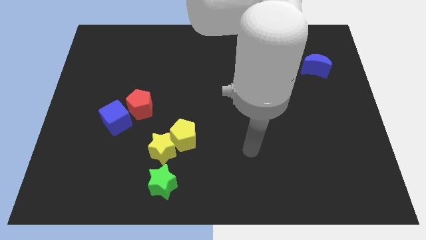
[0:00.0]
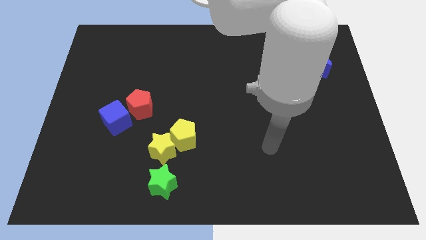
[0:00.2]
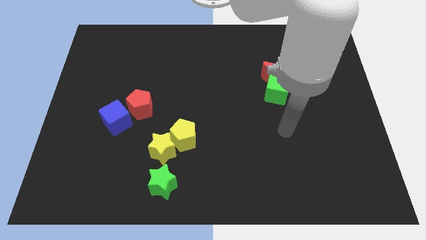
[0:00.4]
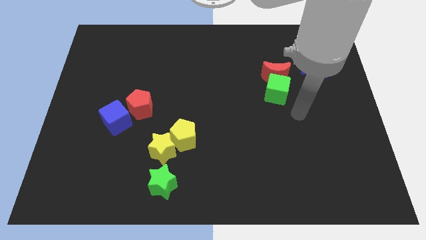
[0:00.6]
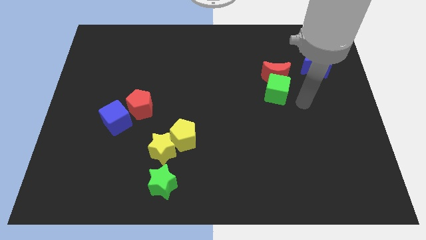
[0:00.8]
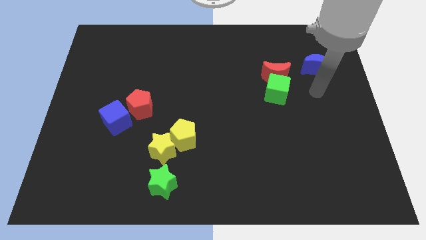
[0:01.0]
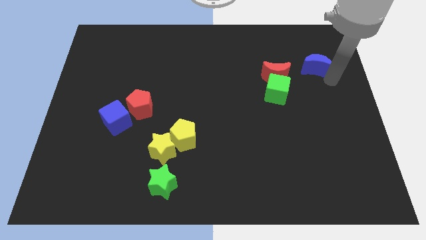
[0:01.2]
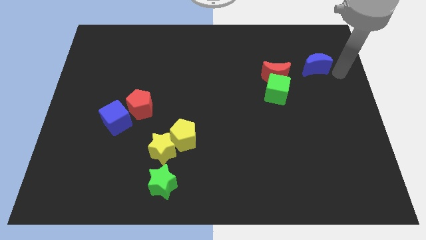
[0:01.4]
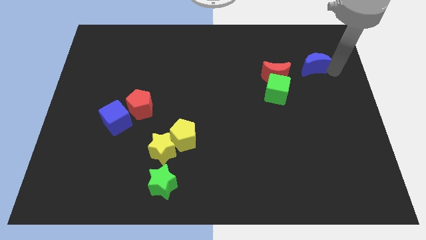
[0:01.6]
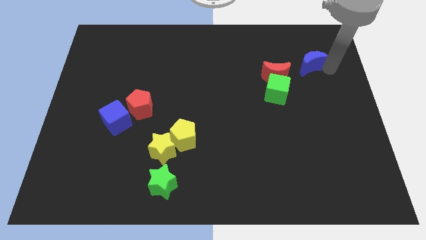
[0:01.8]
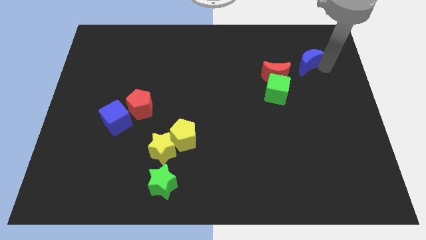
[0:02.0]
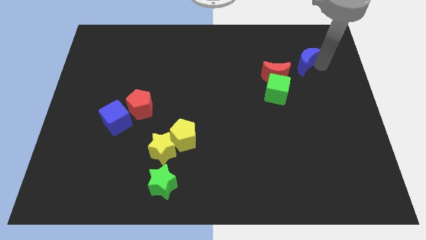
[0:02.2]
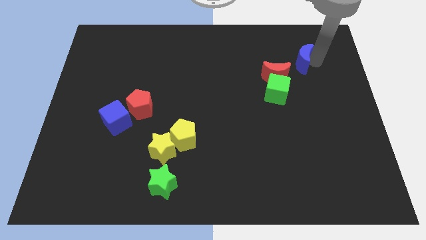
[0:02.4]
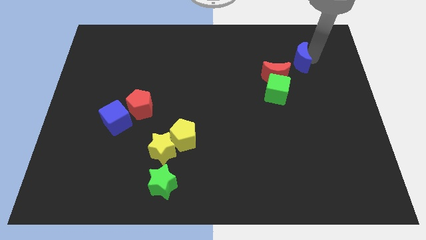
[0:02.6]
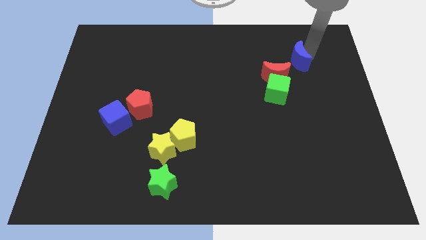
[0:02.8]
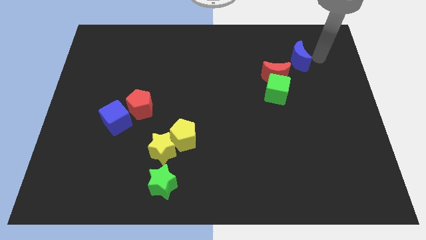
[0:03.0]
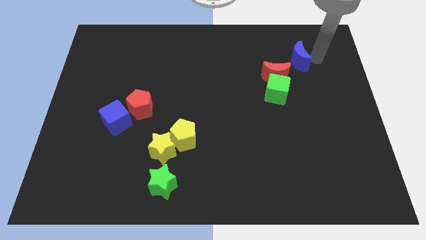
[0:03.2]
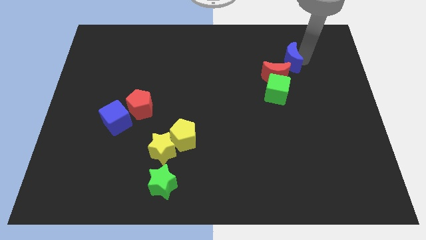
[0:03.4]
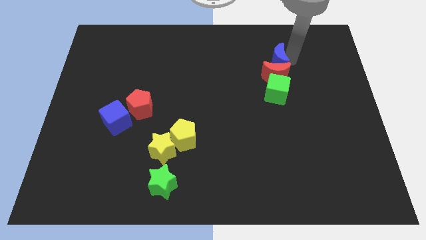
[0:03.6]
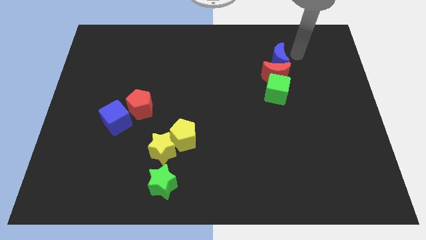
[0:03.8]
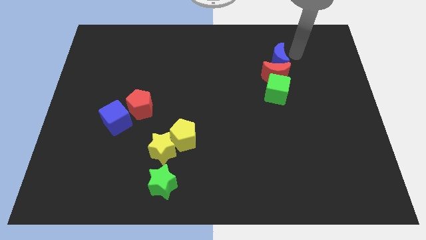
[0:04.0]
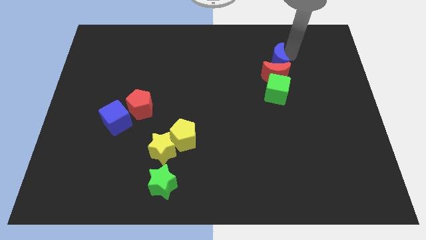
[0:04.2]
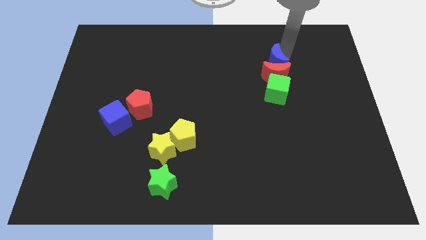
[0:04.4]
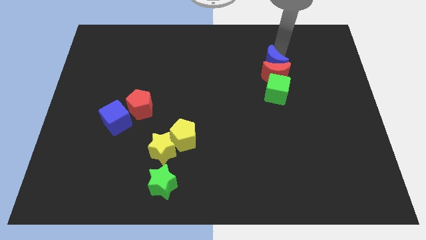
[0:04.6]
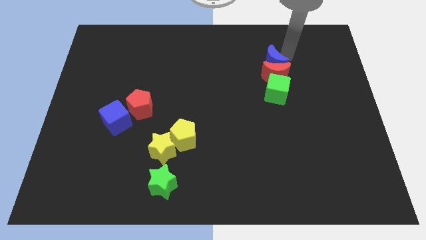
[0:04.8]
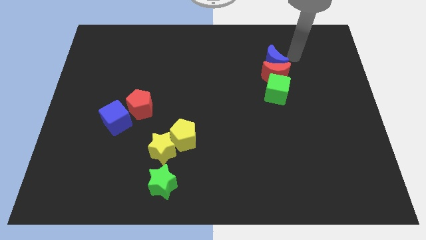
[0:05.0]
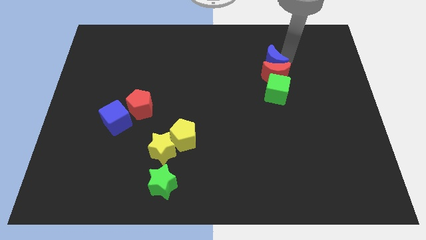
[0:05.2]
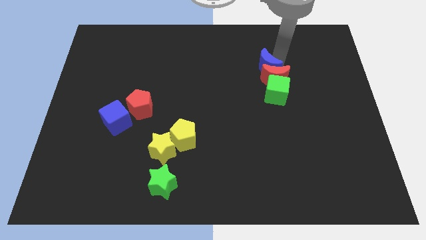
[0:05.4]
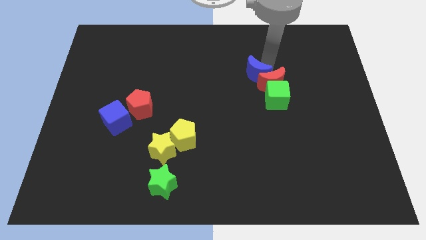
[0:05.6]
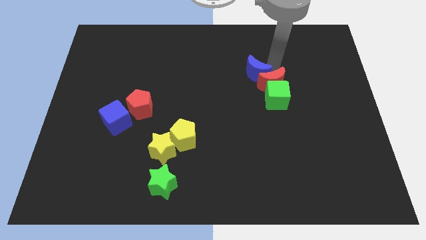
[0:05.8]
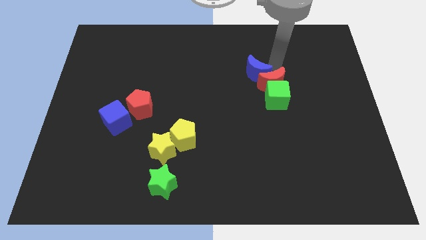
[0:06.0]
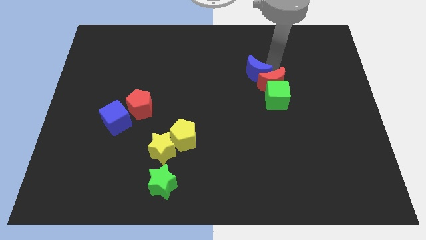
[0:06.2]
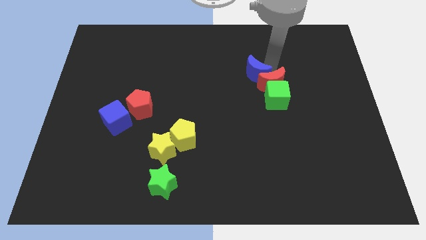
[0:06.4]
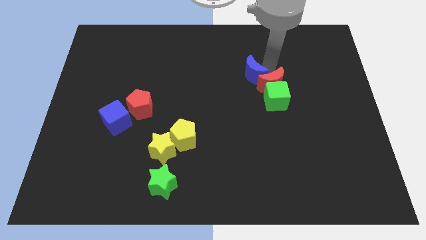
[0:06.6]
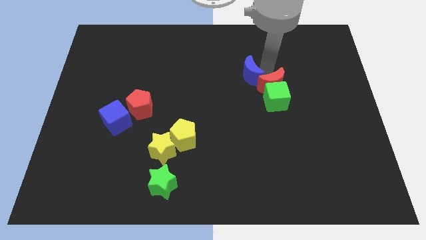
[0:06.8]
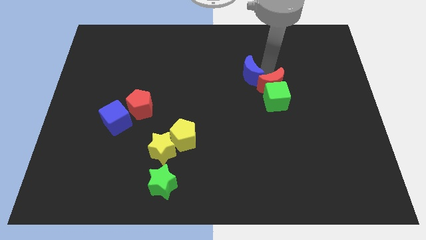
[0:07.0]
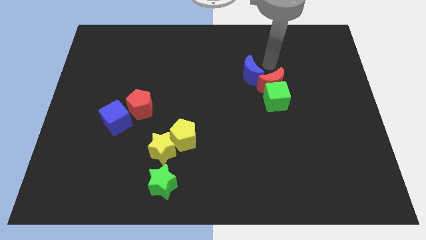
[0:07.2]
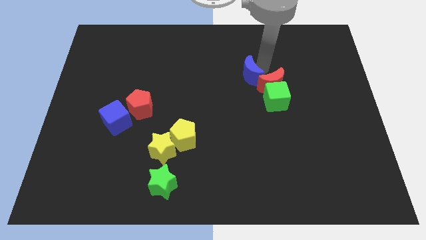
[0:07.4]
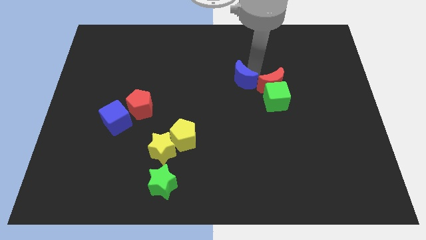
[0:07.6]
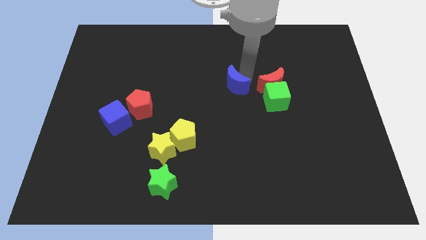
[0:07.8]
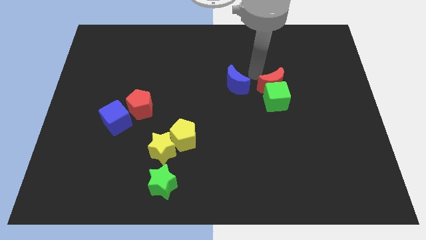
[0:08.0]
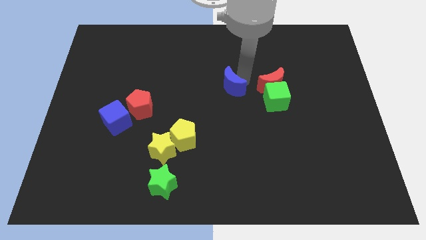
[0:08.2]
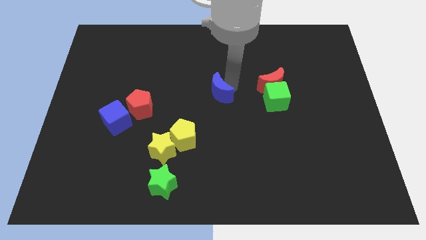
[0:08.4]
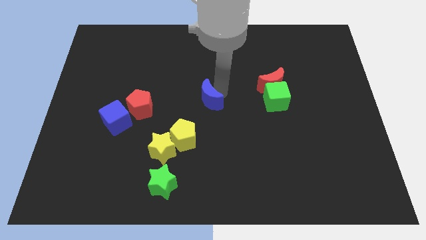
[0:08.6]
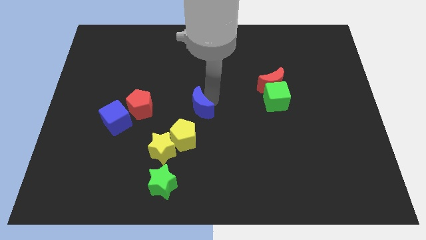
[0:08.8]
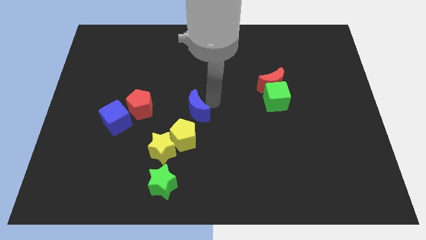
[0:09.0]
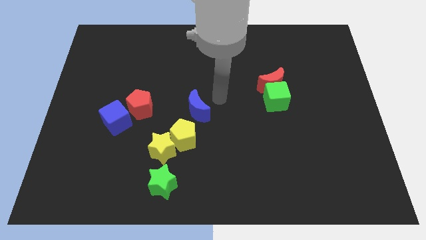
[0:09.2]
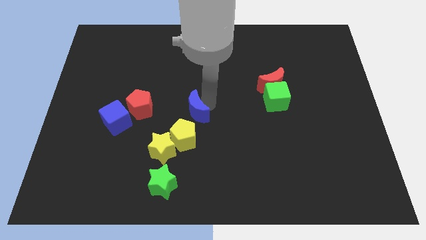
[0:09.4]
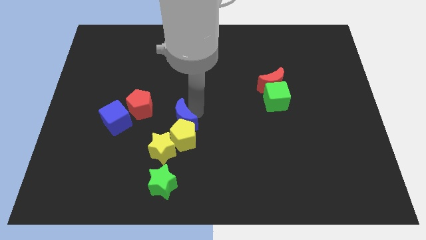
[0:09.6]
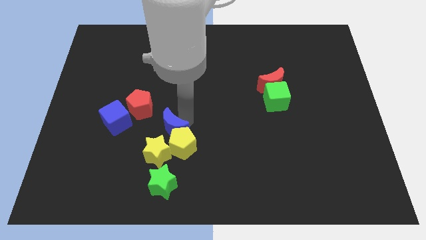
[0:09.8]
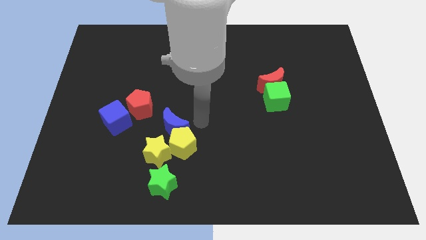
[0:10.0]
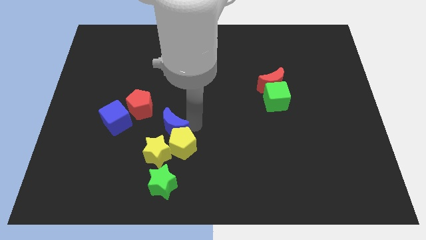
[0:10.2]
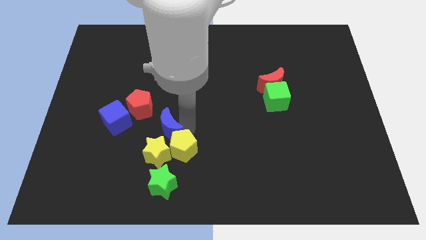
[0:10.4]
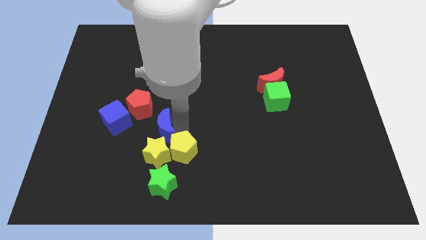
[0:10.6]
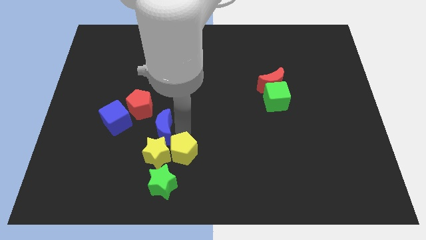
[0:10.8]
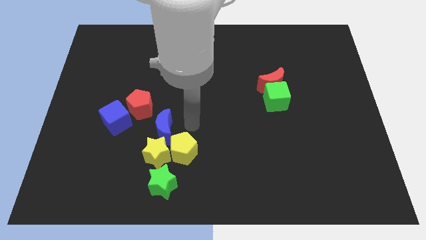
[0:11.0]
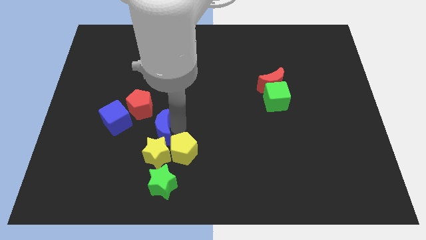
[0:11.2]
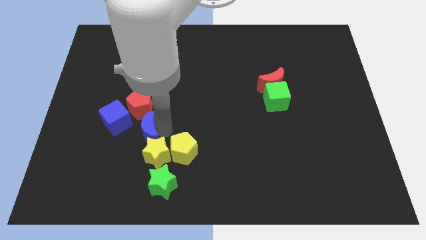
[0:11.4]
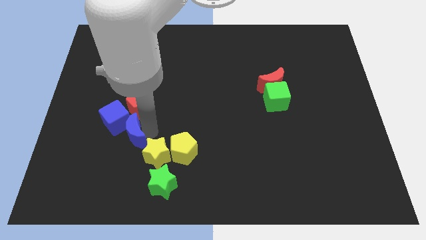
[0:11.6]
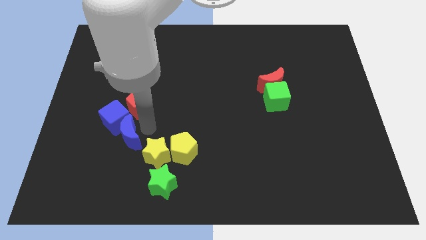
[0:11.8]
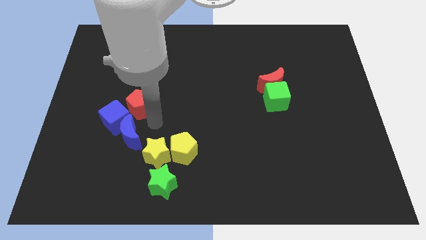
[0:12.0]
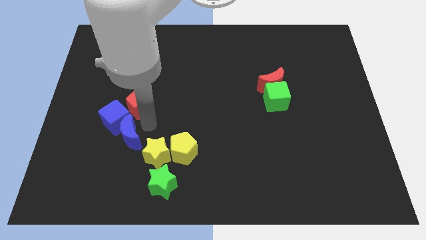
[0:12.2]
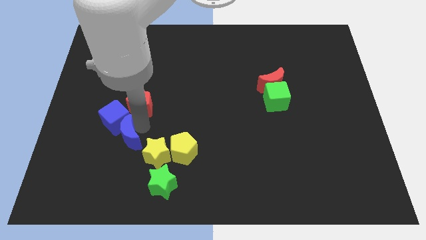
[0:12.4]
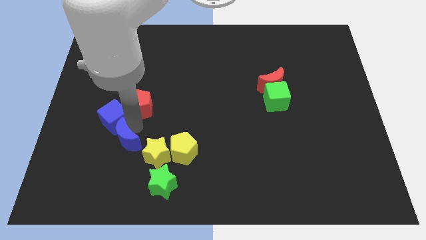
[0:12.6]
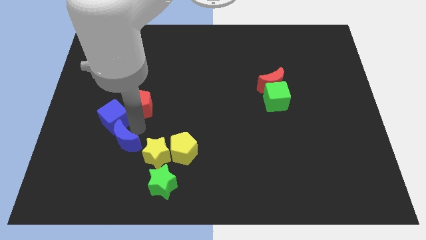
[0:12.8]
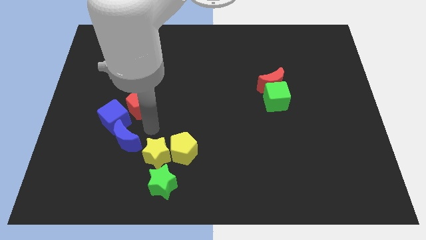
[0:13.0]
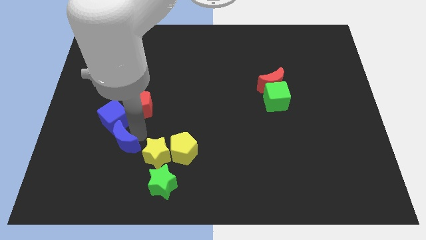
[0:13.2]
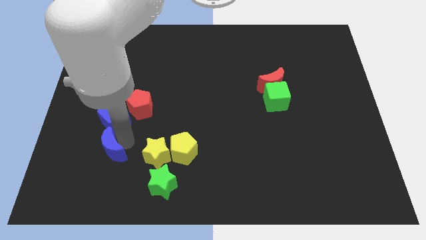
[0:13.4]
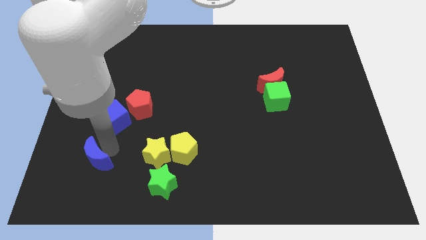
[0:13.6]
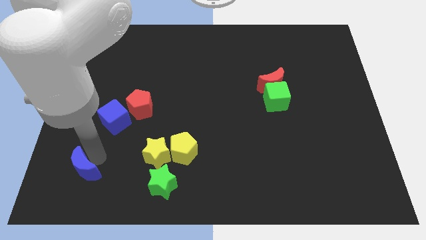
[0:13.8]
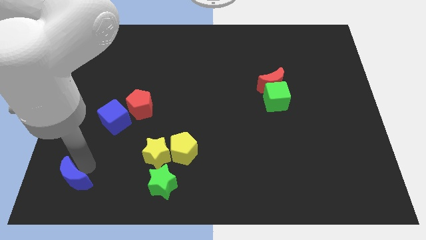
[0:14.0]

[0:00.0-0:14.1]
push the blue moon to the bottom left of the board

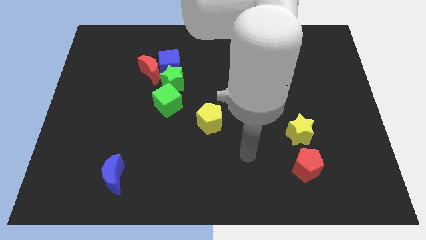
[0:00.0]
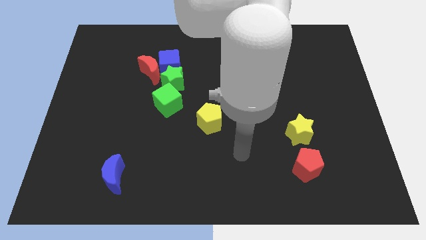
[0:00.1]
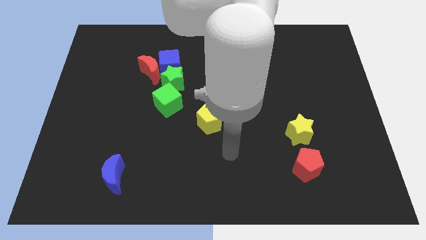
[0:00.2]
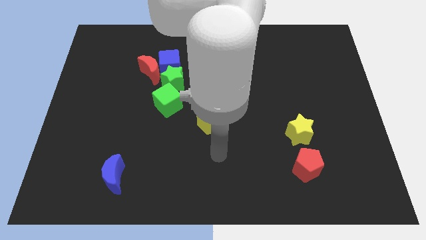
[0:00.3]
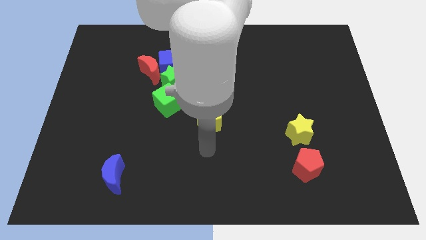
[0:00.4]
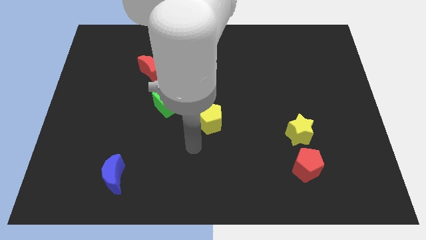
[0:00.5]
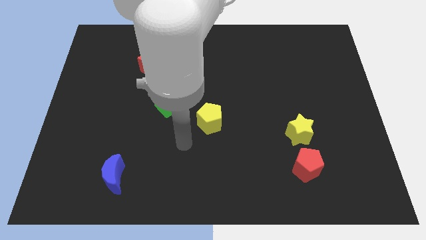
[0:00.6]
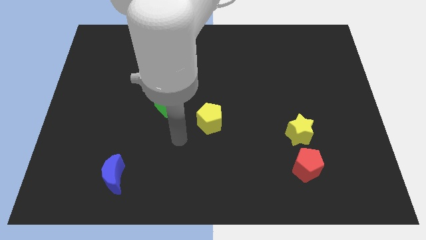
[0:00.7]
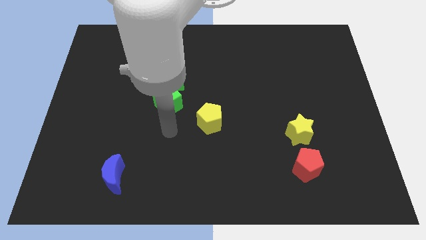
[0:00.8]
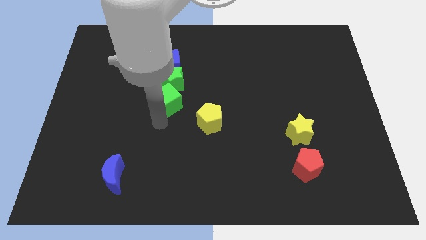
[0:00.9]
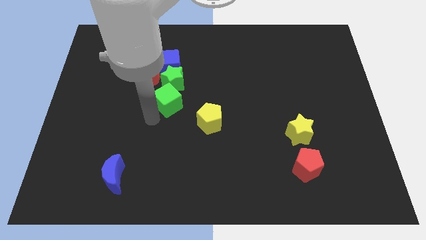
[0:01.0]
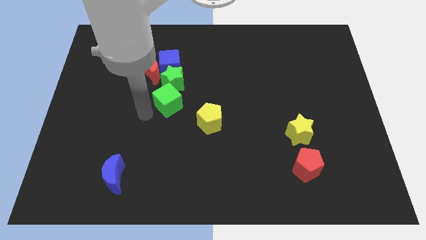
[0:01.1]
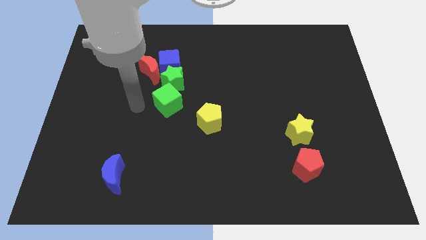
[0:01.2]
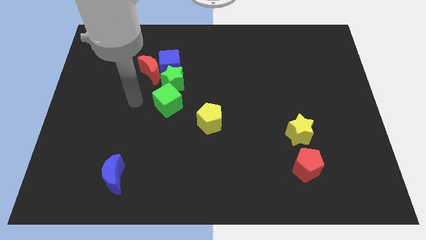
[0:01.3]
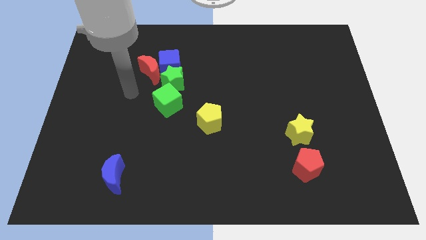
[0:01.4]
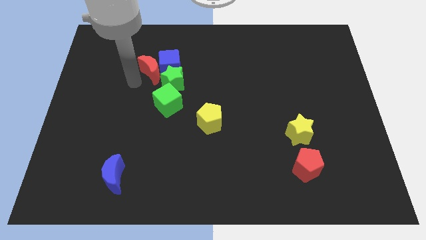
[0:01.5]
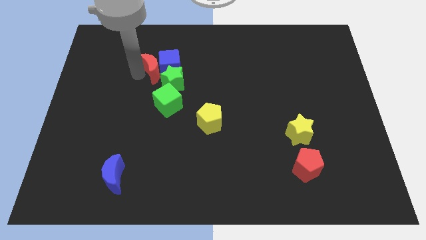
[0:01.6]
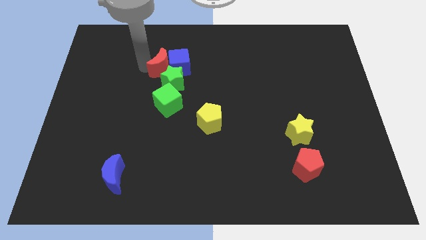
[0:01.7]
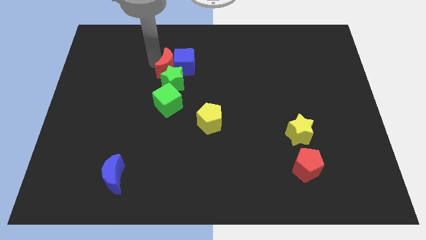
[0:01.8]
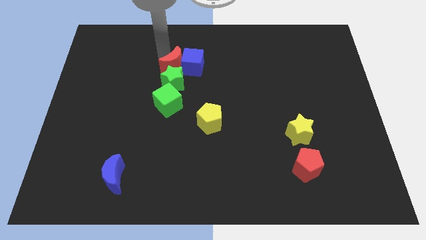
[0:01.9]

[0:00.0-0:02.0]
push the blue cube to the middle of the board
